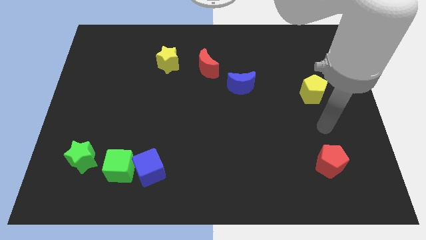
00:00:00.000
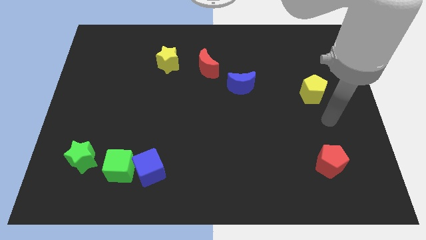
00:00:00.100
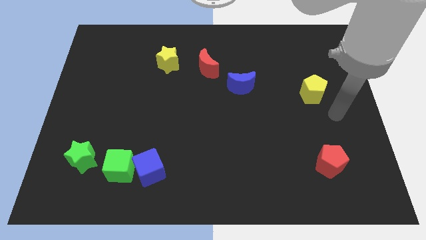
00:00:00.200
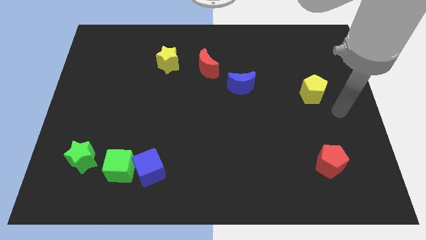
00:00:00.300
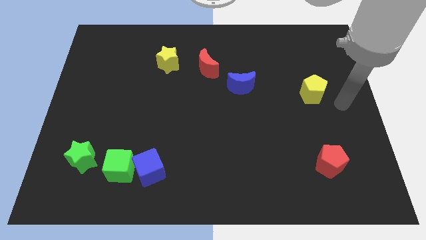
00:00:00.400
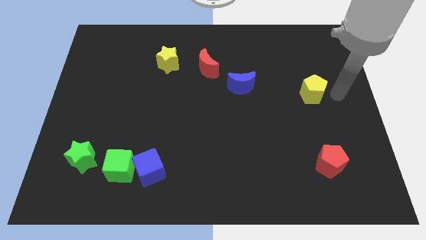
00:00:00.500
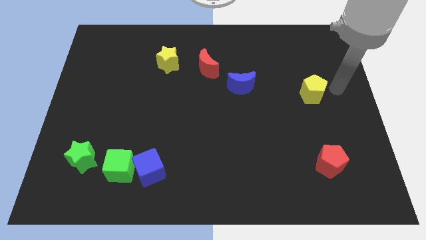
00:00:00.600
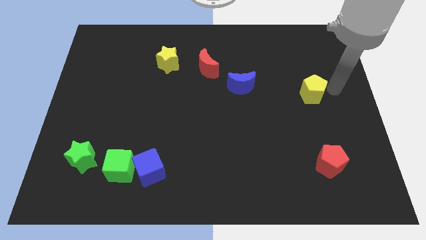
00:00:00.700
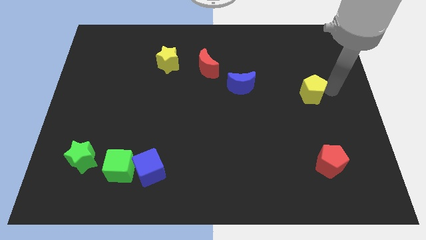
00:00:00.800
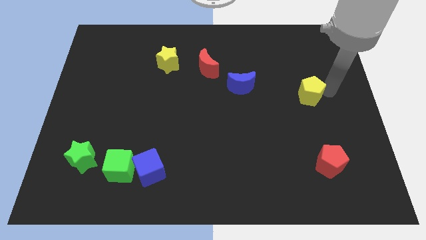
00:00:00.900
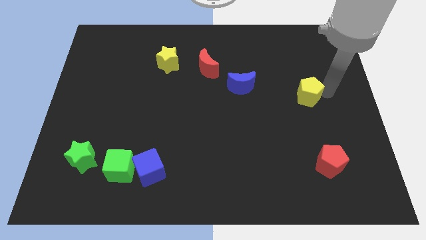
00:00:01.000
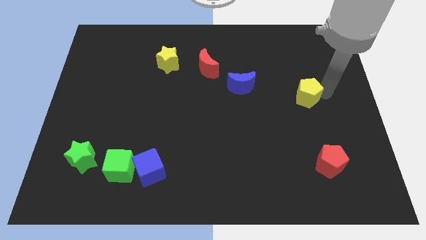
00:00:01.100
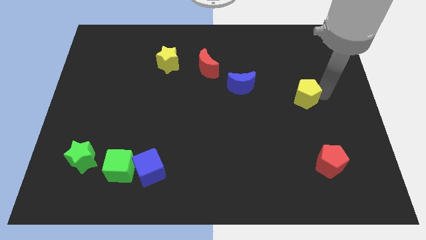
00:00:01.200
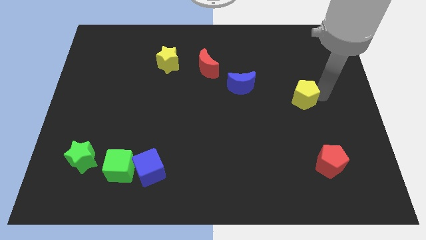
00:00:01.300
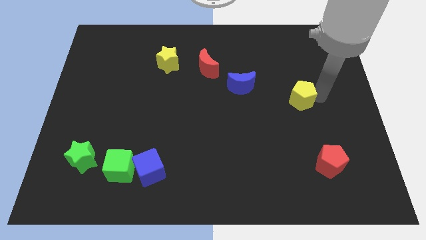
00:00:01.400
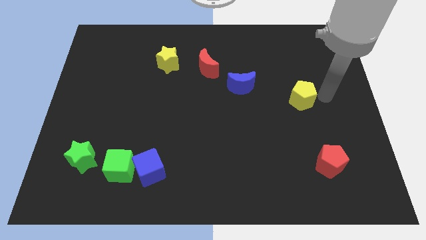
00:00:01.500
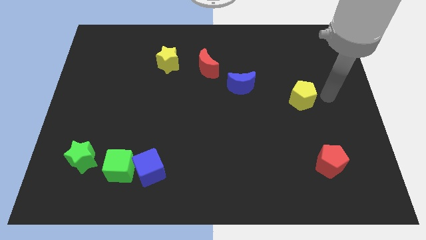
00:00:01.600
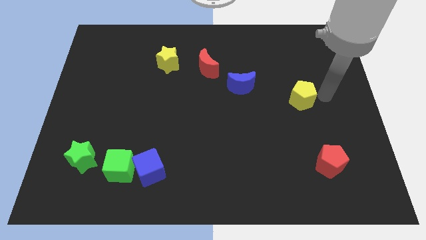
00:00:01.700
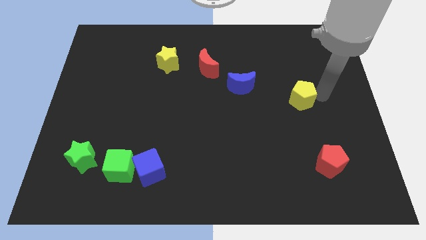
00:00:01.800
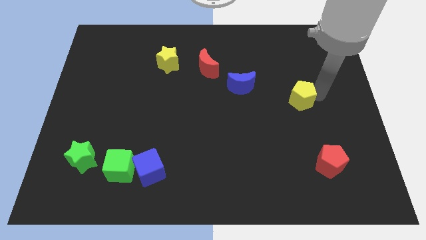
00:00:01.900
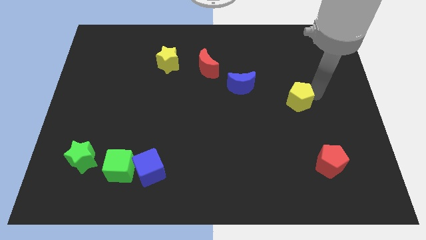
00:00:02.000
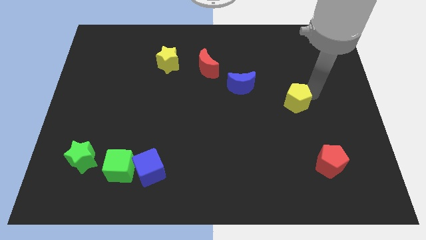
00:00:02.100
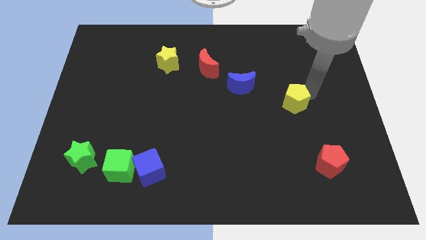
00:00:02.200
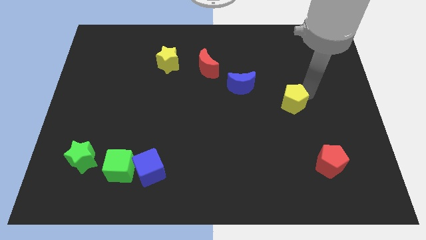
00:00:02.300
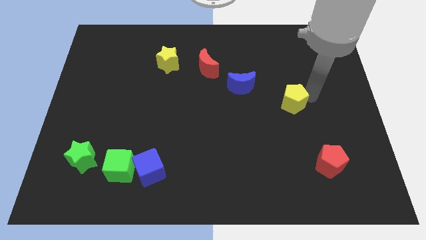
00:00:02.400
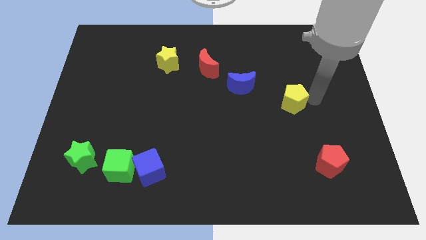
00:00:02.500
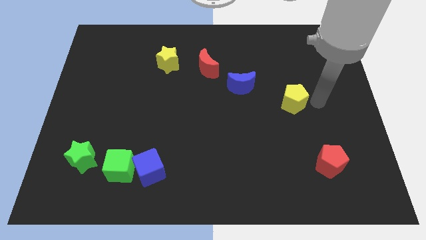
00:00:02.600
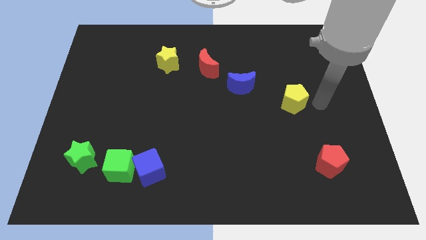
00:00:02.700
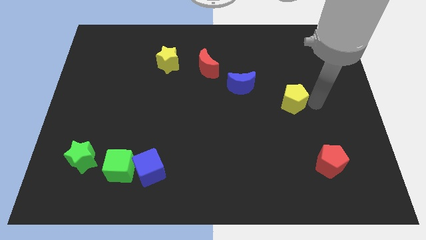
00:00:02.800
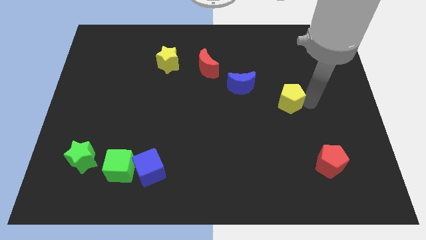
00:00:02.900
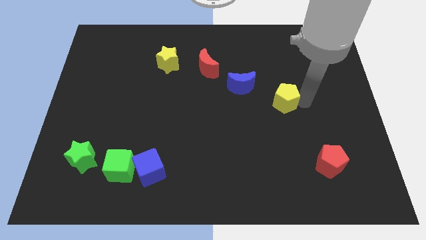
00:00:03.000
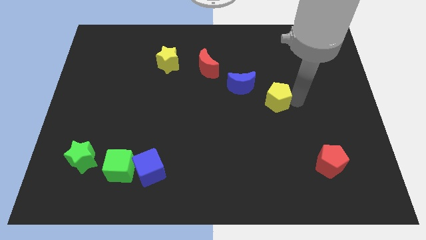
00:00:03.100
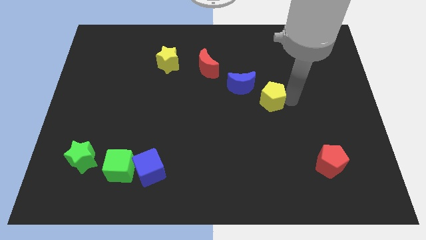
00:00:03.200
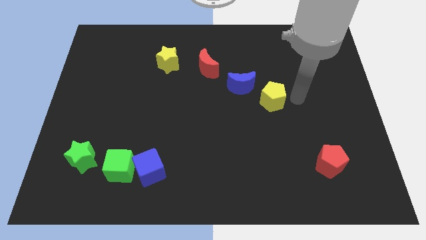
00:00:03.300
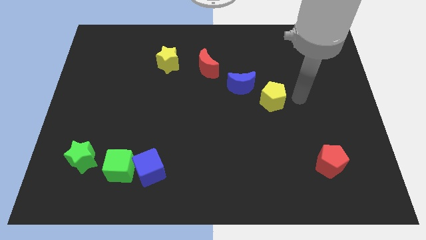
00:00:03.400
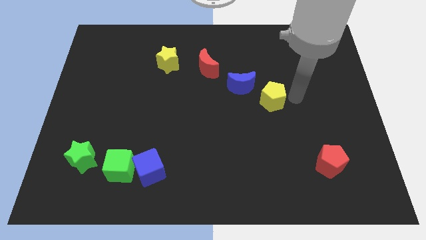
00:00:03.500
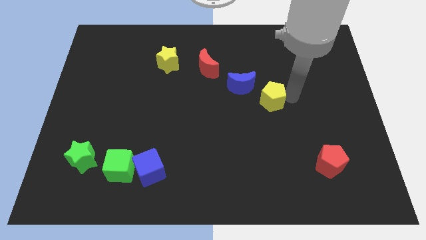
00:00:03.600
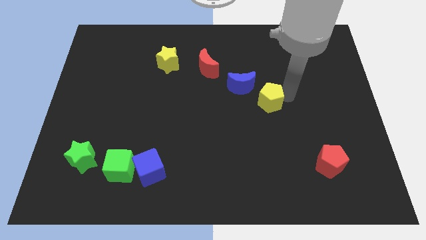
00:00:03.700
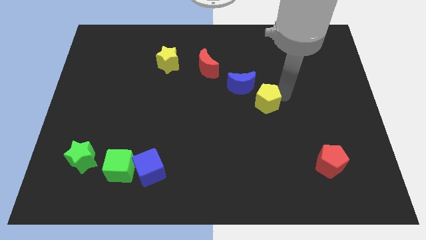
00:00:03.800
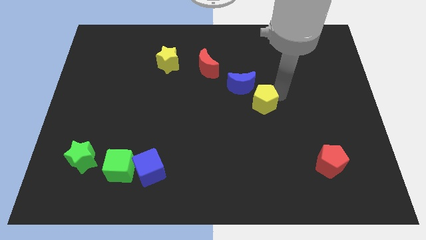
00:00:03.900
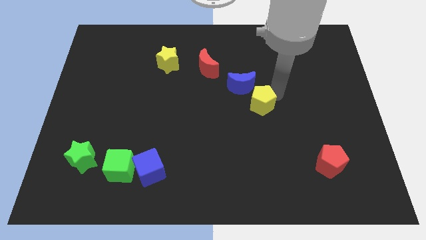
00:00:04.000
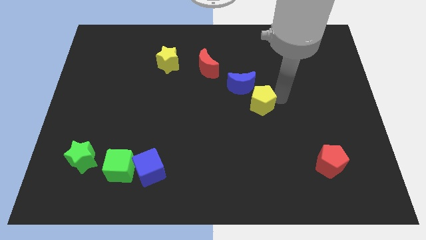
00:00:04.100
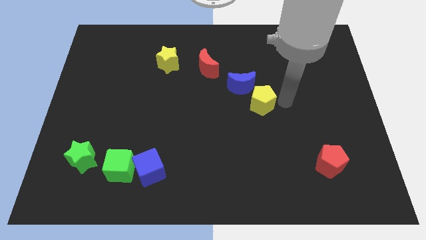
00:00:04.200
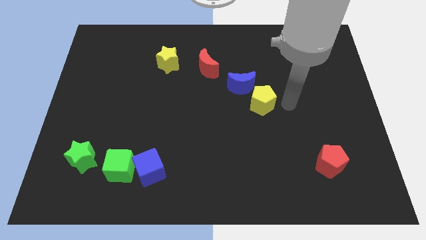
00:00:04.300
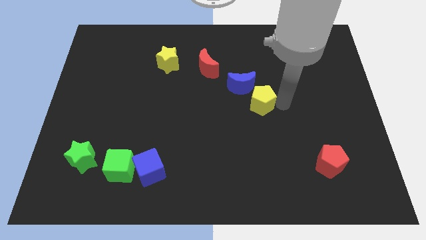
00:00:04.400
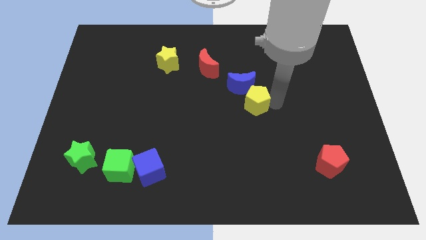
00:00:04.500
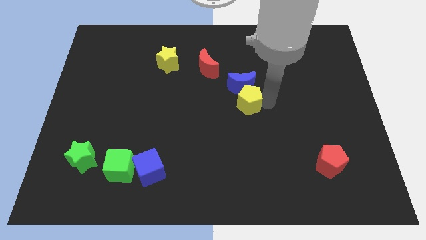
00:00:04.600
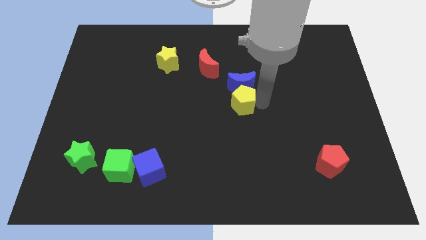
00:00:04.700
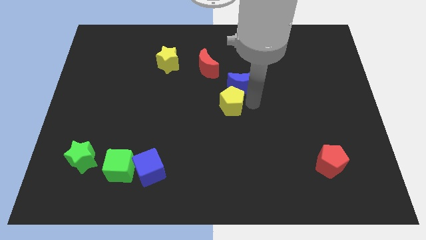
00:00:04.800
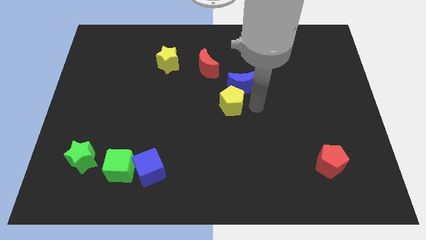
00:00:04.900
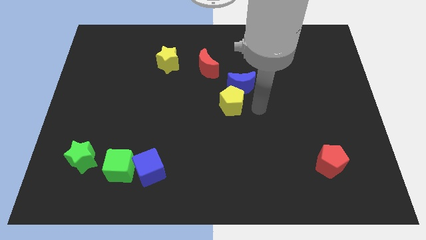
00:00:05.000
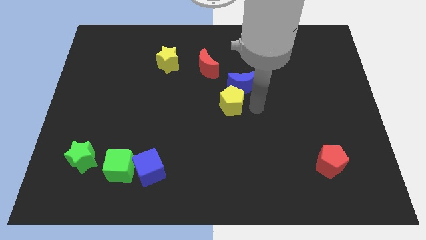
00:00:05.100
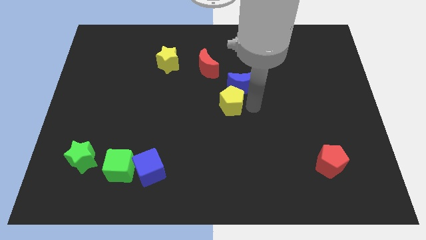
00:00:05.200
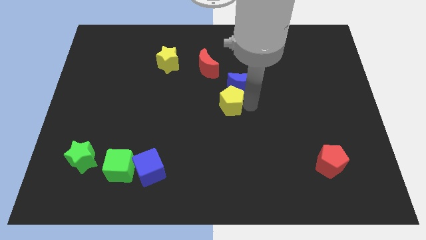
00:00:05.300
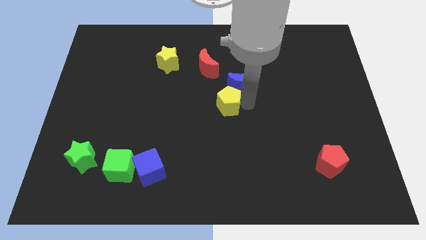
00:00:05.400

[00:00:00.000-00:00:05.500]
move the yellow pentagon to the left

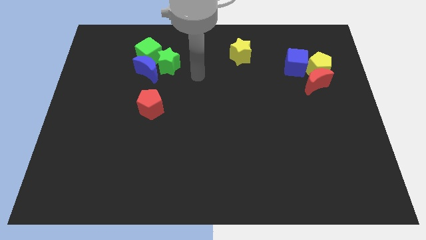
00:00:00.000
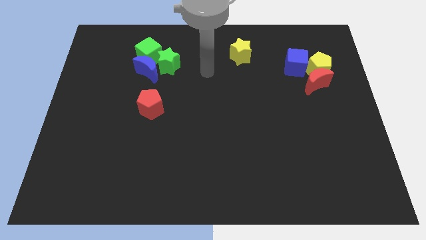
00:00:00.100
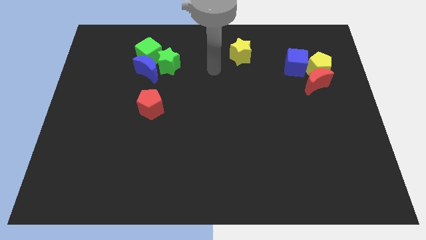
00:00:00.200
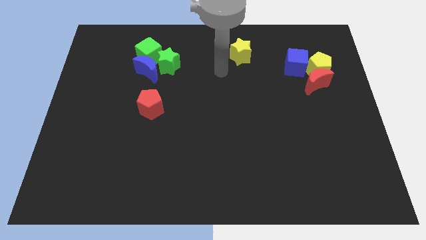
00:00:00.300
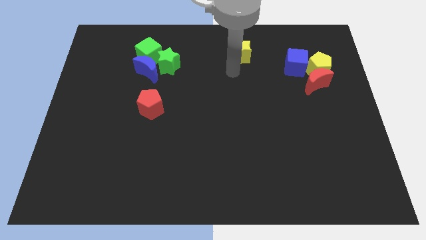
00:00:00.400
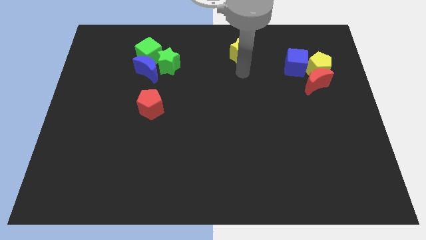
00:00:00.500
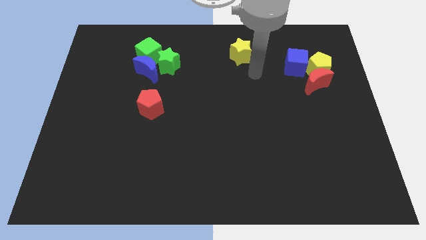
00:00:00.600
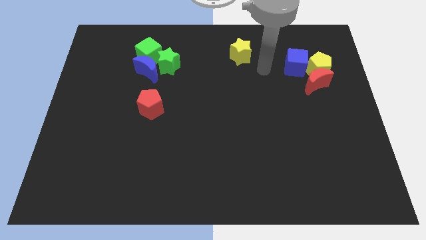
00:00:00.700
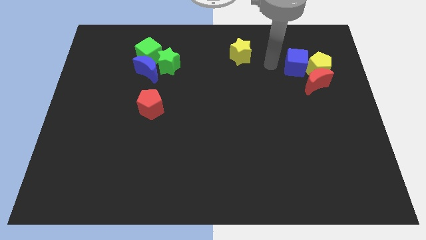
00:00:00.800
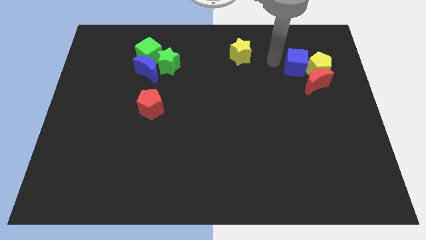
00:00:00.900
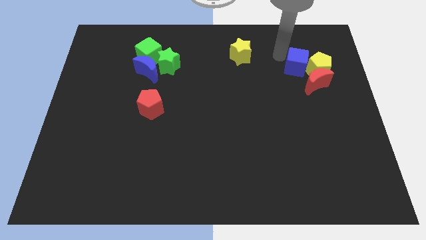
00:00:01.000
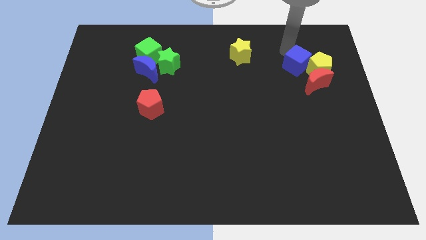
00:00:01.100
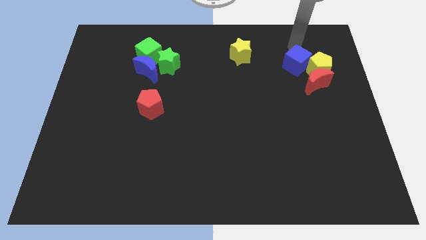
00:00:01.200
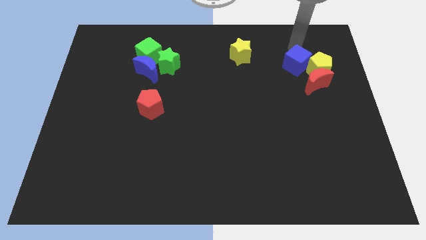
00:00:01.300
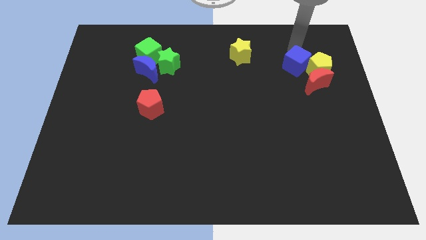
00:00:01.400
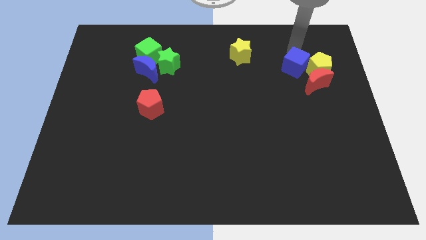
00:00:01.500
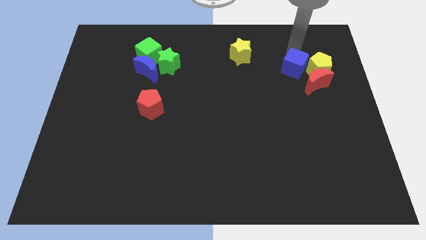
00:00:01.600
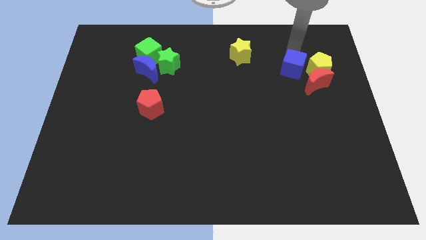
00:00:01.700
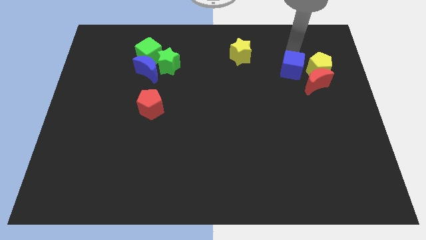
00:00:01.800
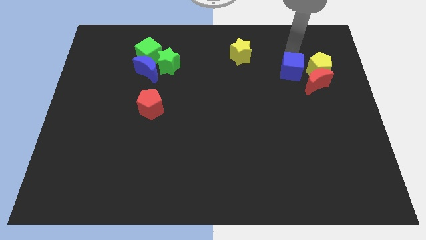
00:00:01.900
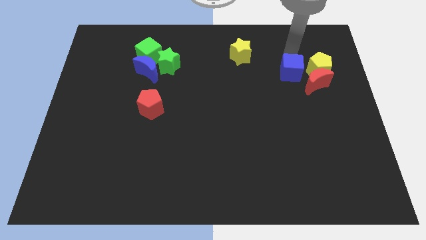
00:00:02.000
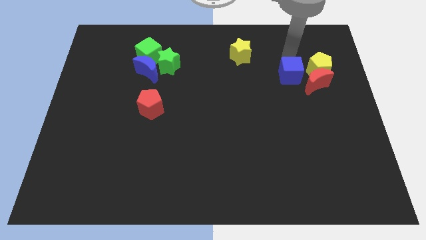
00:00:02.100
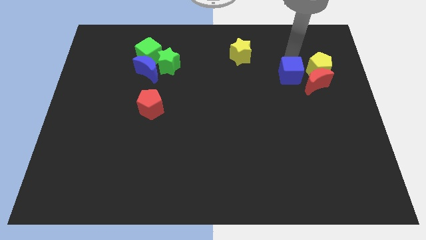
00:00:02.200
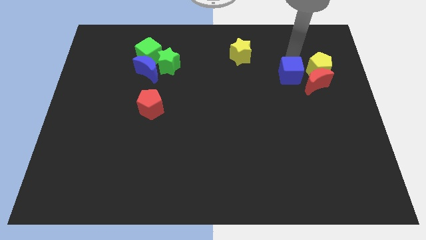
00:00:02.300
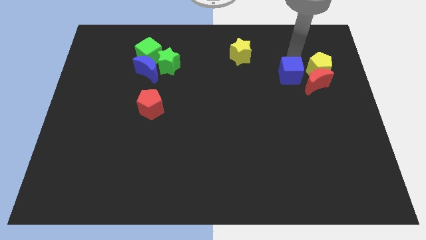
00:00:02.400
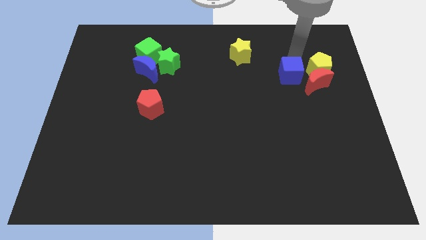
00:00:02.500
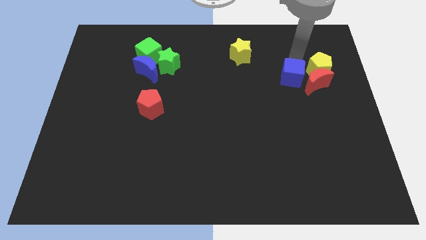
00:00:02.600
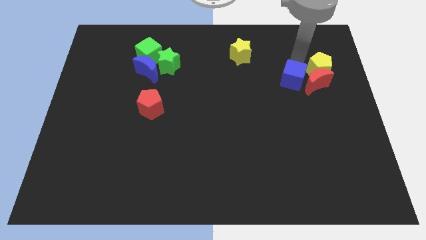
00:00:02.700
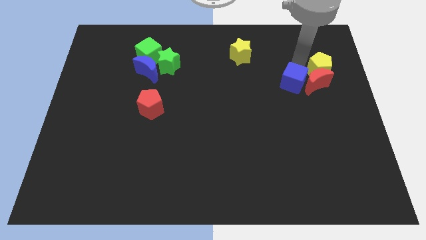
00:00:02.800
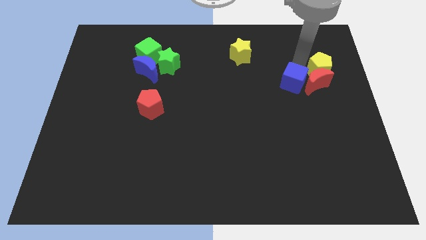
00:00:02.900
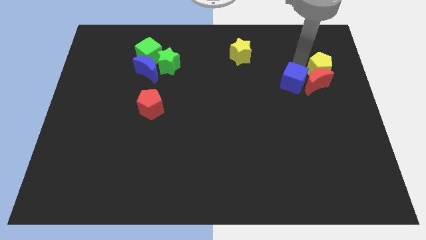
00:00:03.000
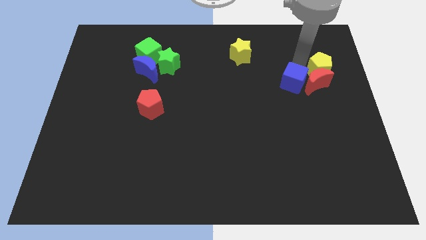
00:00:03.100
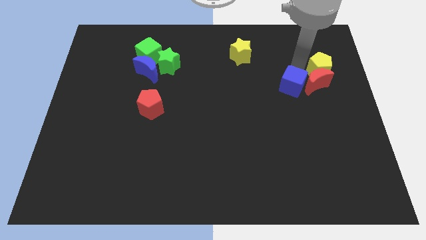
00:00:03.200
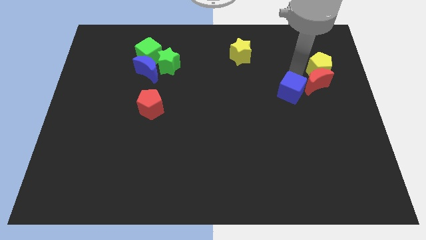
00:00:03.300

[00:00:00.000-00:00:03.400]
push the blue cube downwards somewhat
